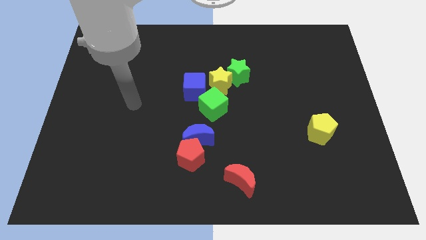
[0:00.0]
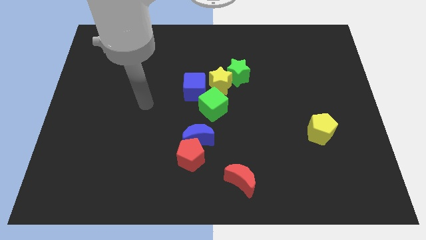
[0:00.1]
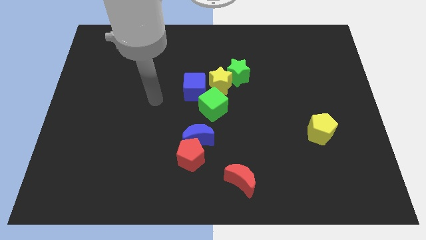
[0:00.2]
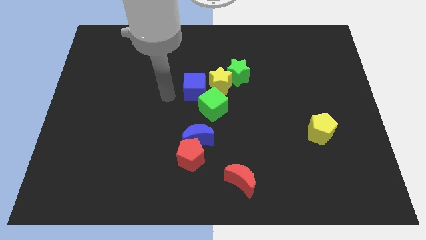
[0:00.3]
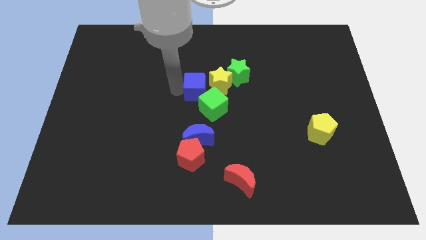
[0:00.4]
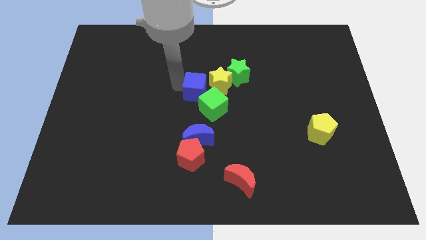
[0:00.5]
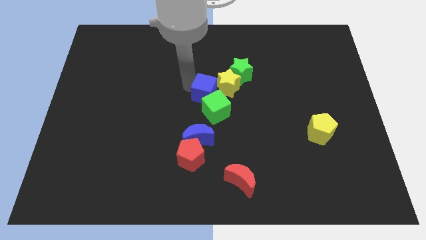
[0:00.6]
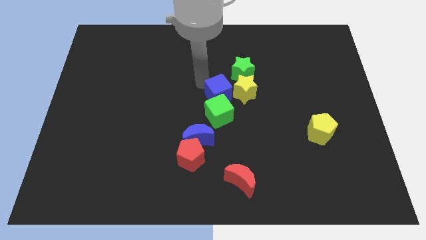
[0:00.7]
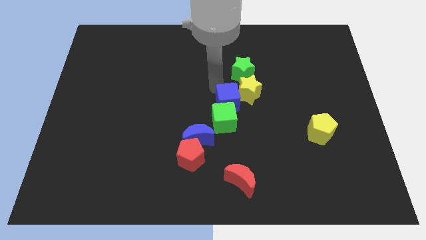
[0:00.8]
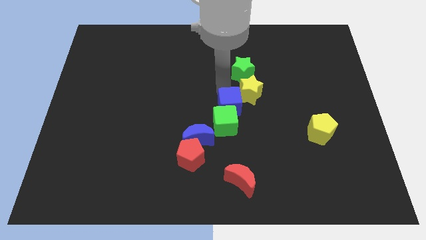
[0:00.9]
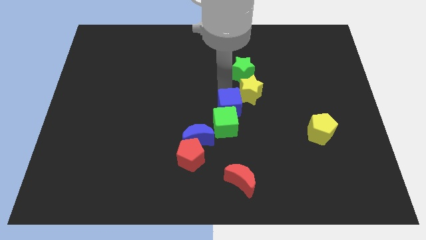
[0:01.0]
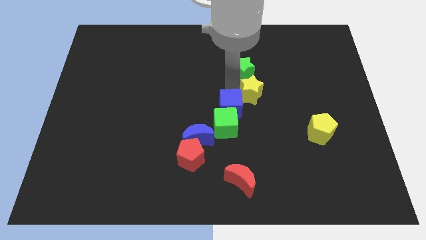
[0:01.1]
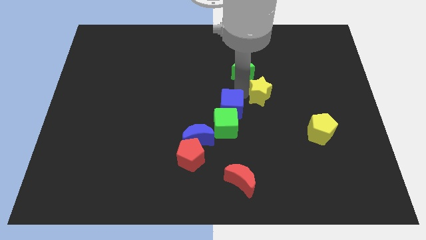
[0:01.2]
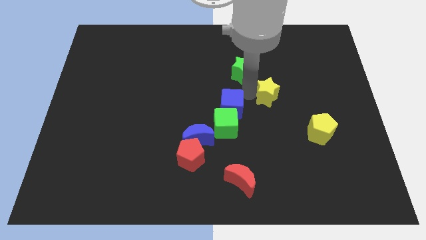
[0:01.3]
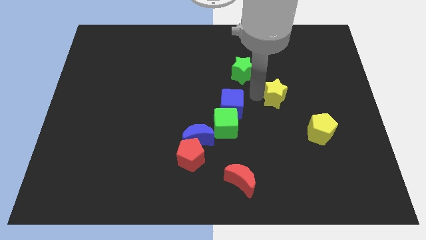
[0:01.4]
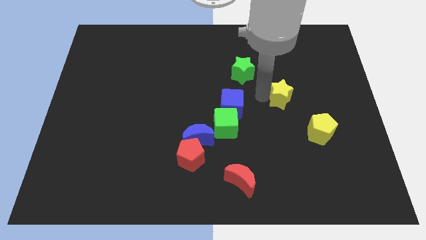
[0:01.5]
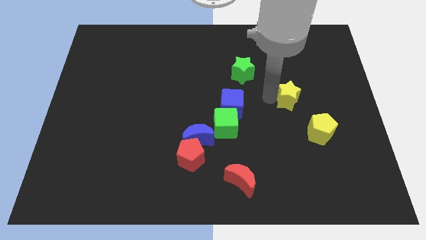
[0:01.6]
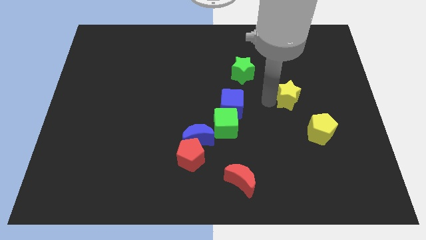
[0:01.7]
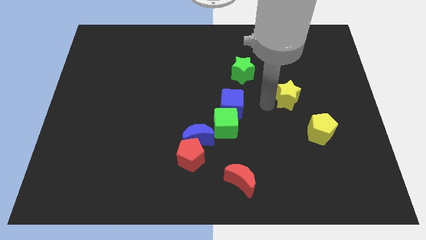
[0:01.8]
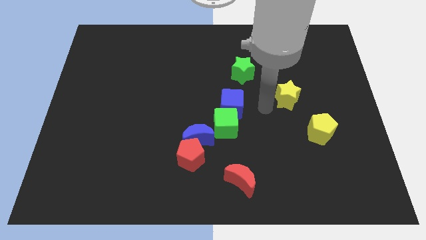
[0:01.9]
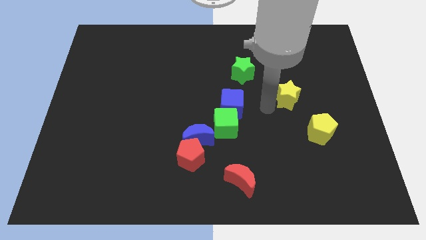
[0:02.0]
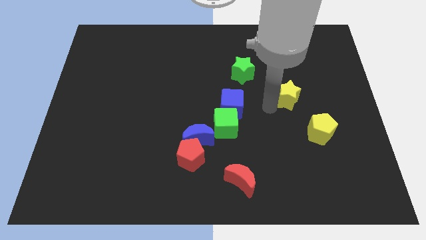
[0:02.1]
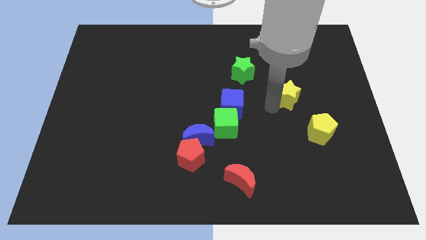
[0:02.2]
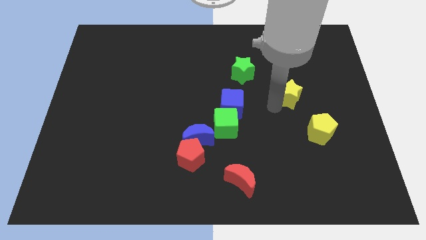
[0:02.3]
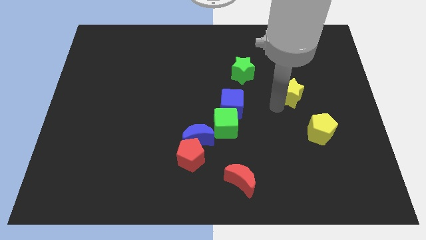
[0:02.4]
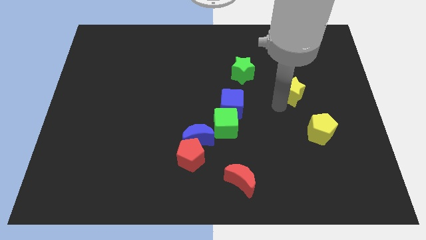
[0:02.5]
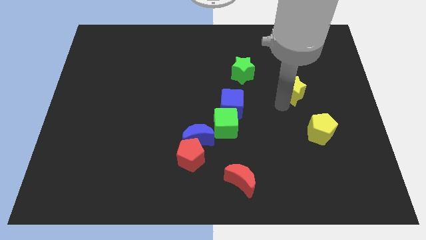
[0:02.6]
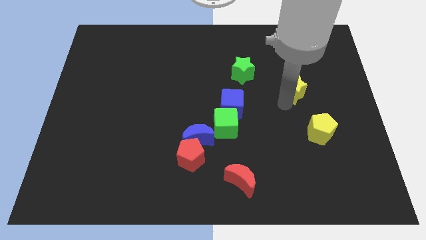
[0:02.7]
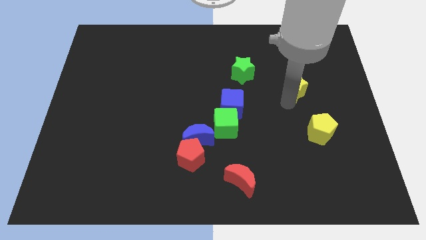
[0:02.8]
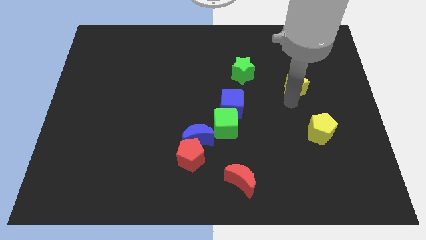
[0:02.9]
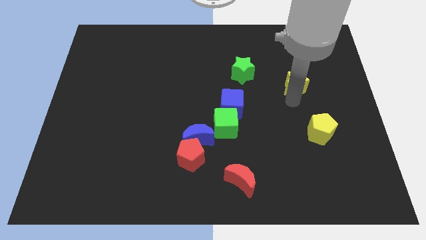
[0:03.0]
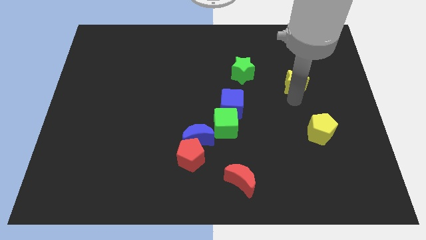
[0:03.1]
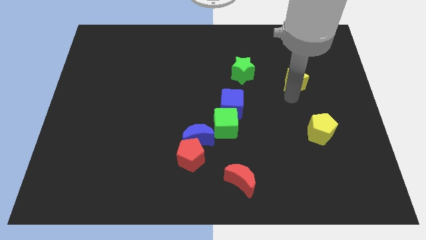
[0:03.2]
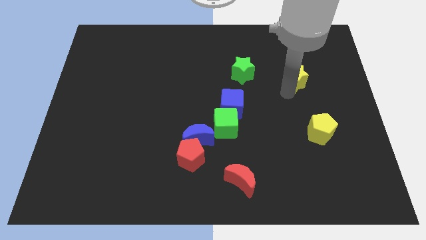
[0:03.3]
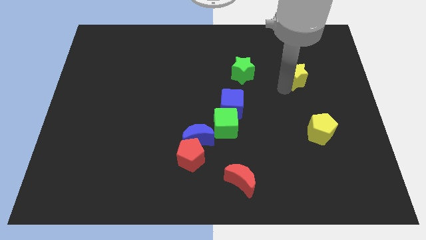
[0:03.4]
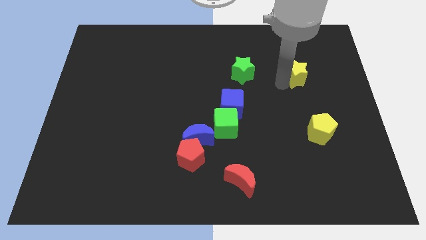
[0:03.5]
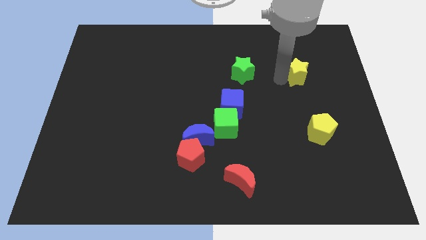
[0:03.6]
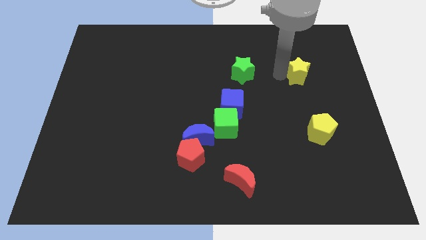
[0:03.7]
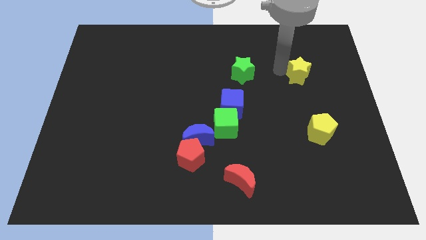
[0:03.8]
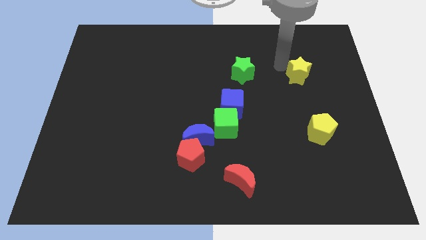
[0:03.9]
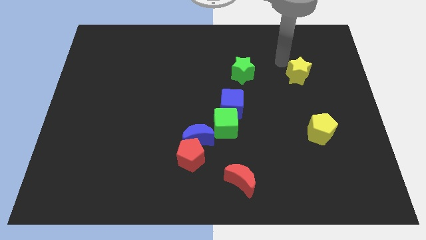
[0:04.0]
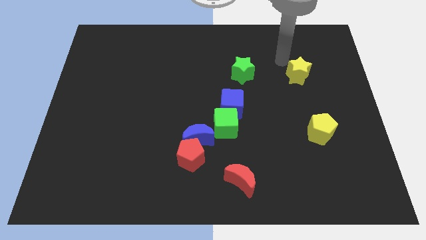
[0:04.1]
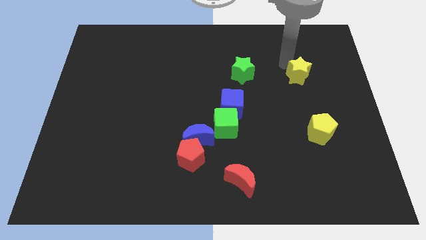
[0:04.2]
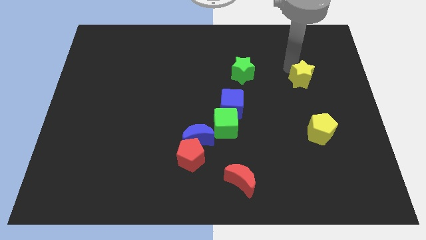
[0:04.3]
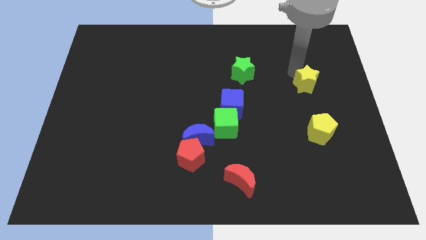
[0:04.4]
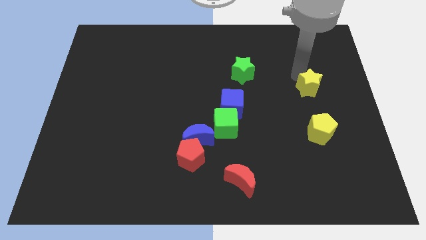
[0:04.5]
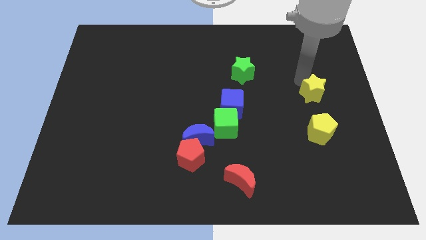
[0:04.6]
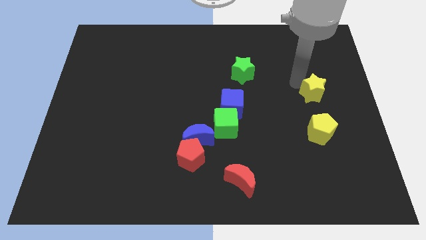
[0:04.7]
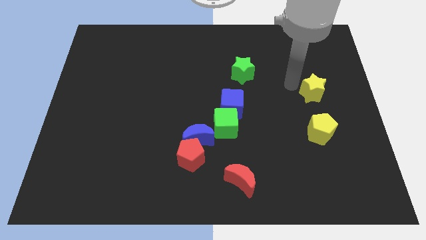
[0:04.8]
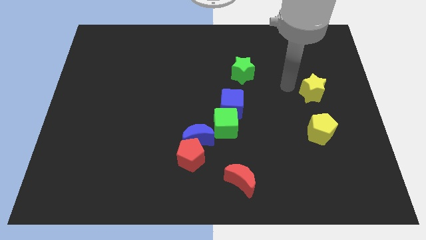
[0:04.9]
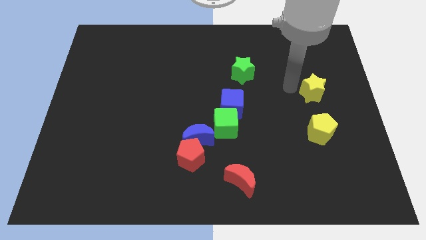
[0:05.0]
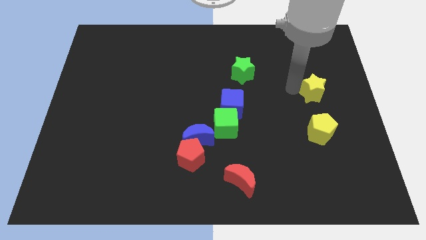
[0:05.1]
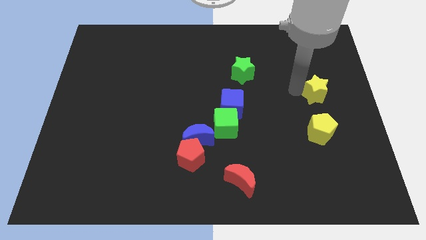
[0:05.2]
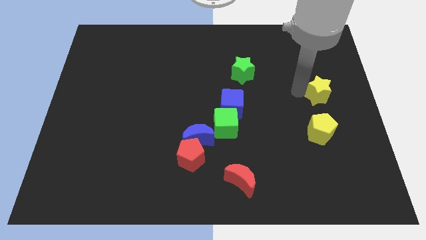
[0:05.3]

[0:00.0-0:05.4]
slide the yellow star to the right side of the board

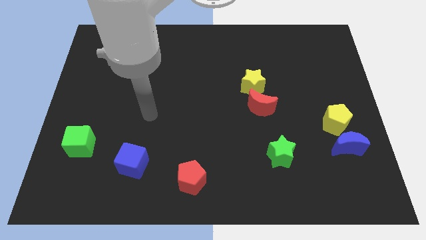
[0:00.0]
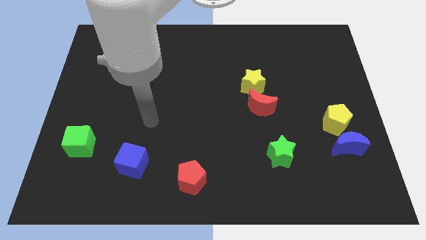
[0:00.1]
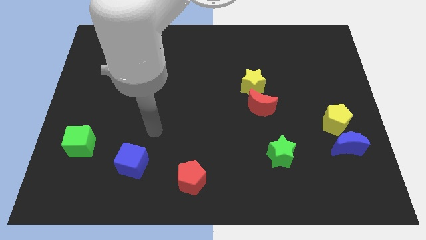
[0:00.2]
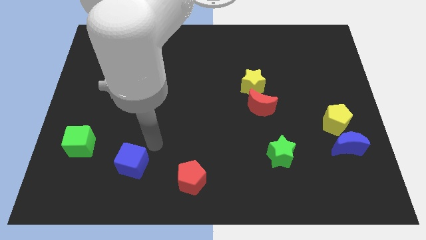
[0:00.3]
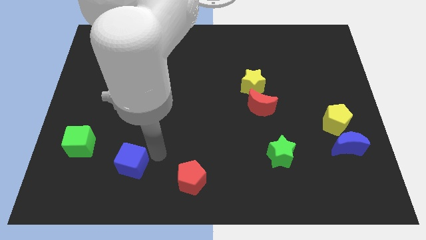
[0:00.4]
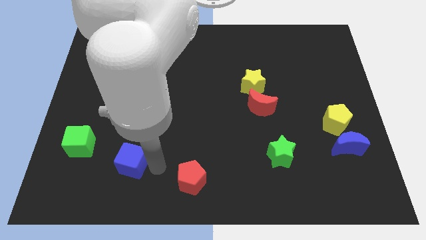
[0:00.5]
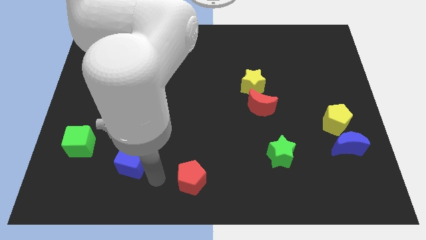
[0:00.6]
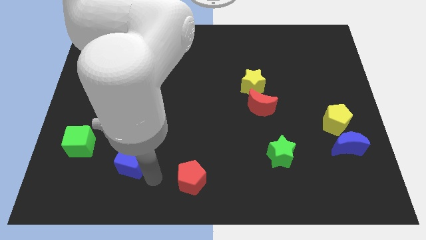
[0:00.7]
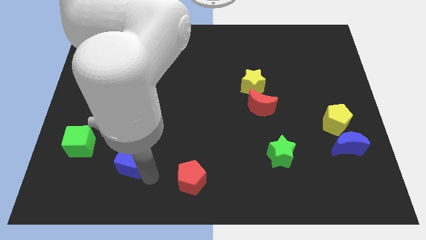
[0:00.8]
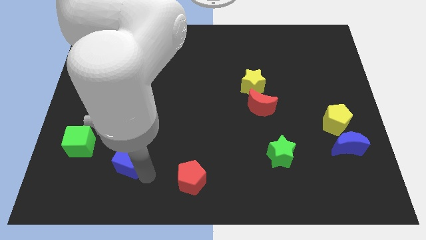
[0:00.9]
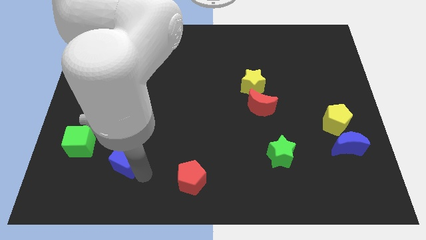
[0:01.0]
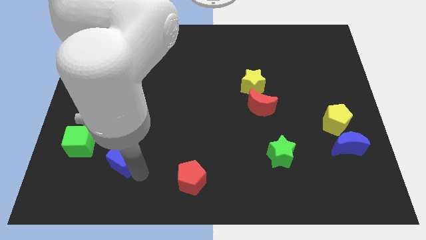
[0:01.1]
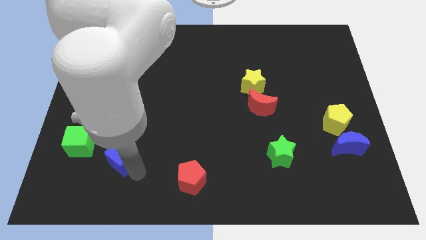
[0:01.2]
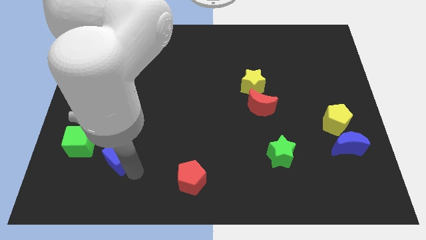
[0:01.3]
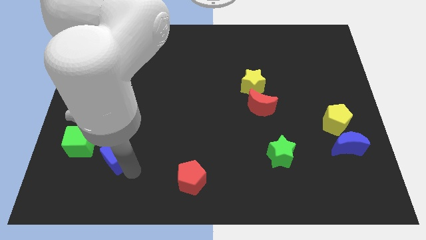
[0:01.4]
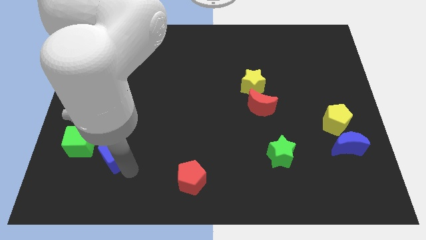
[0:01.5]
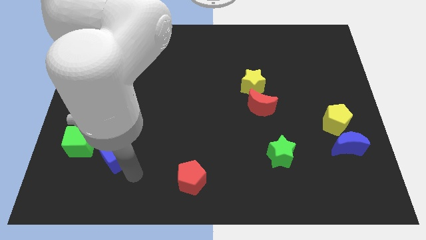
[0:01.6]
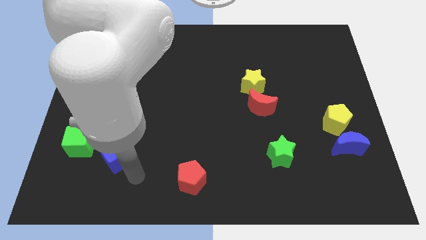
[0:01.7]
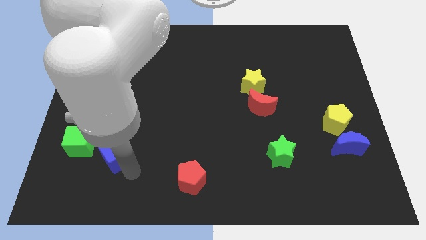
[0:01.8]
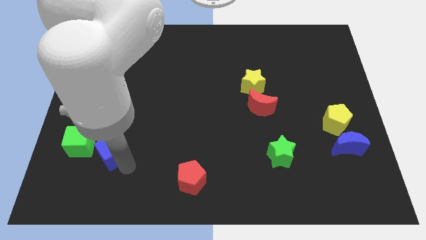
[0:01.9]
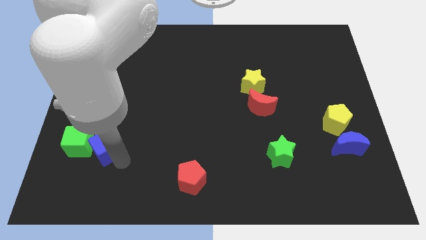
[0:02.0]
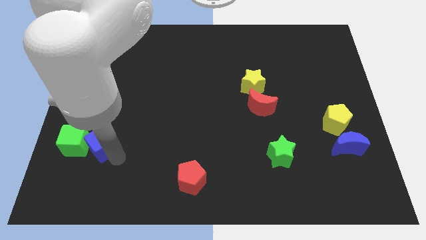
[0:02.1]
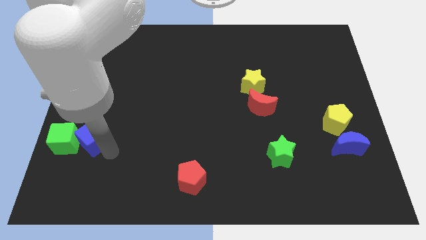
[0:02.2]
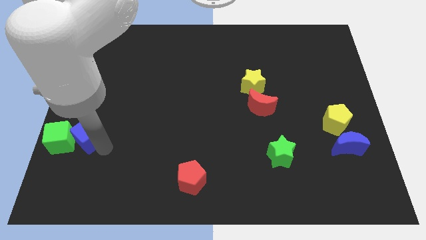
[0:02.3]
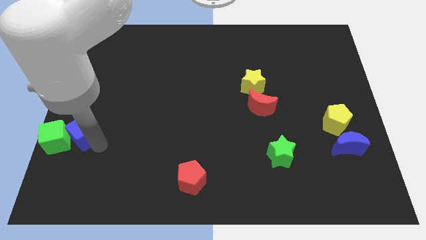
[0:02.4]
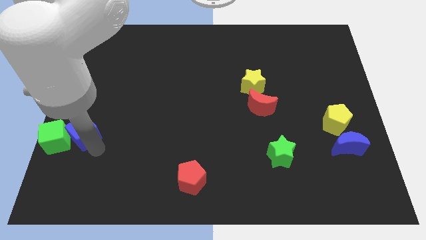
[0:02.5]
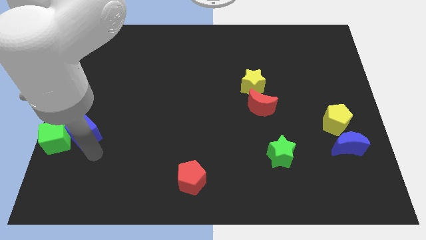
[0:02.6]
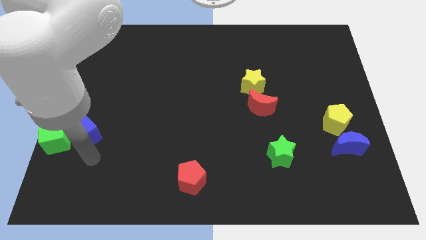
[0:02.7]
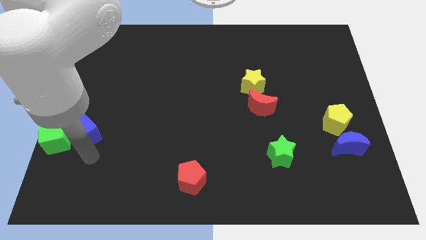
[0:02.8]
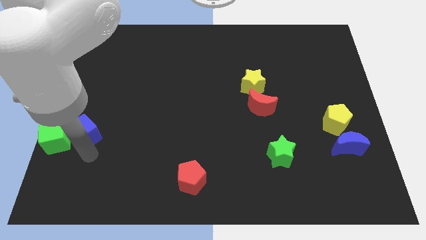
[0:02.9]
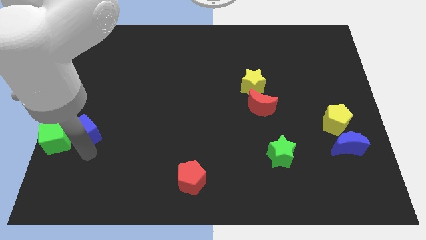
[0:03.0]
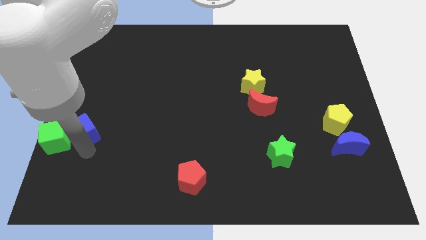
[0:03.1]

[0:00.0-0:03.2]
push the blue cube to the center left
